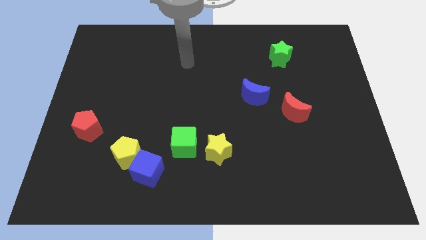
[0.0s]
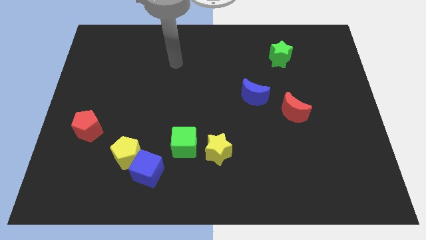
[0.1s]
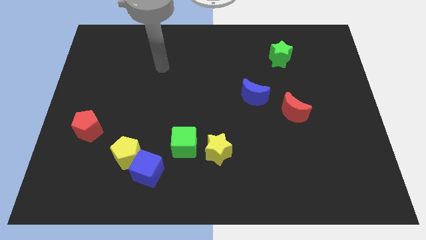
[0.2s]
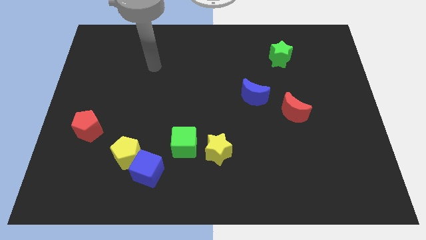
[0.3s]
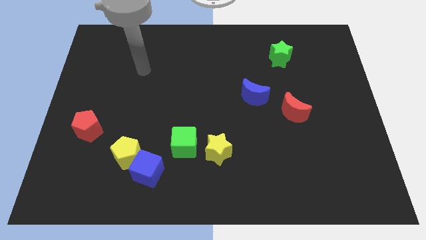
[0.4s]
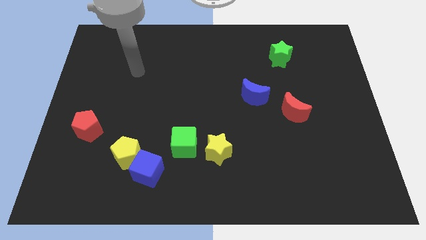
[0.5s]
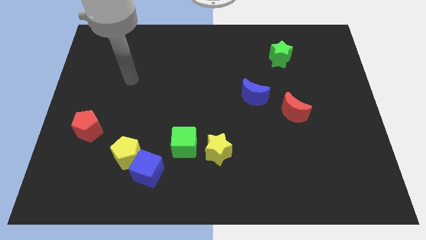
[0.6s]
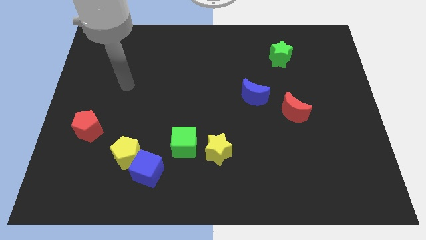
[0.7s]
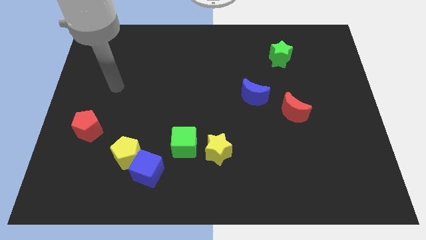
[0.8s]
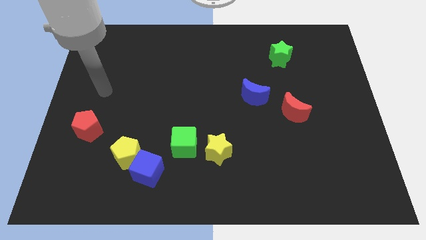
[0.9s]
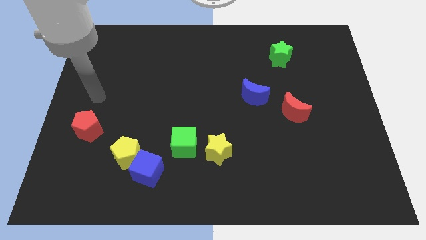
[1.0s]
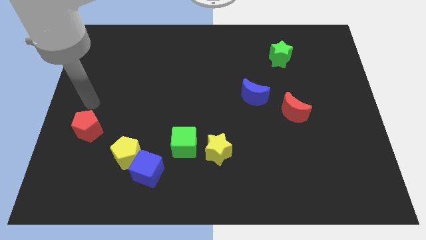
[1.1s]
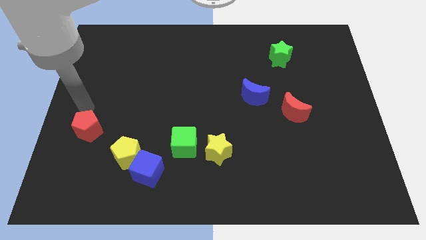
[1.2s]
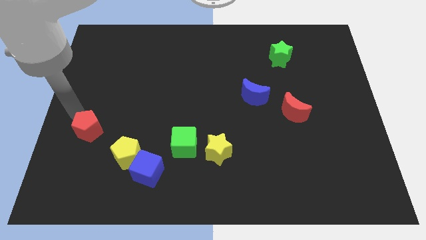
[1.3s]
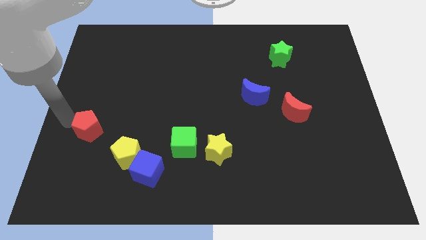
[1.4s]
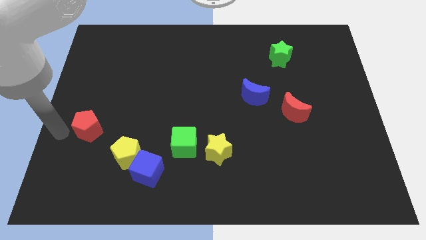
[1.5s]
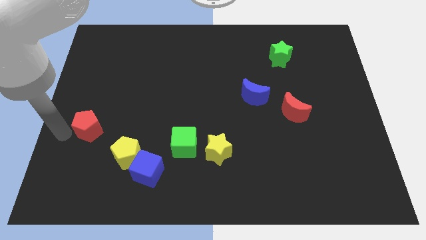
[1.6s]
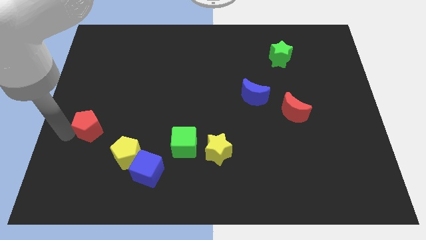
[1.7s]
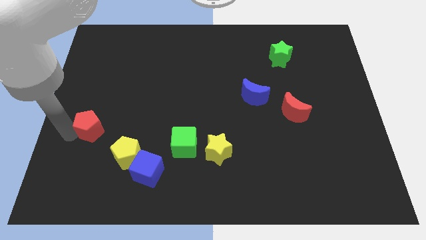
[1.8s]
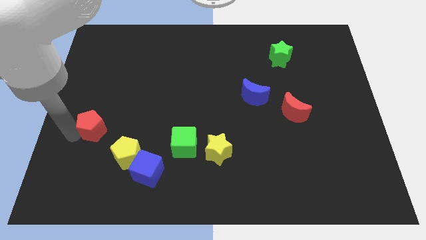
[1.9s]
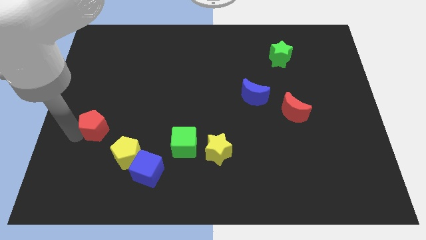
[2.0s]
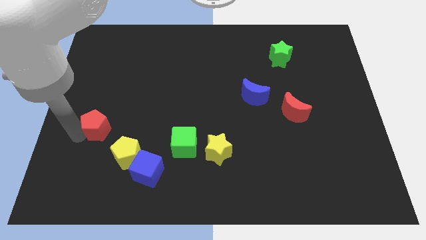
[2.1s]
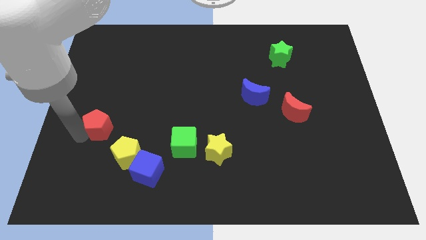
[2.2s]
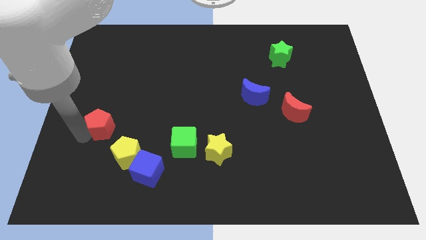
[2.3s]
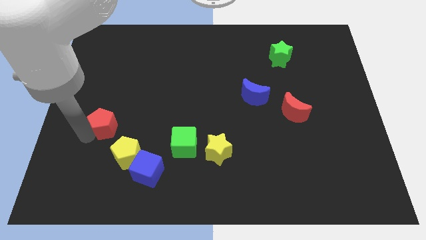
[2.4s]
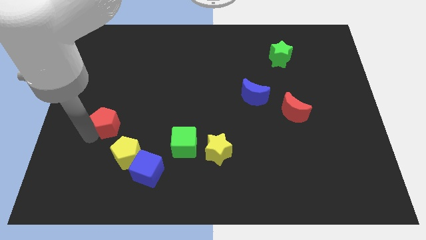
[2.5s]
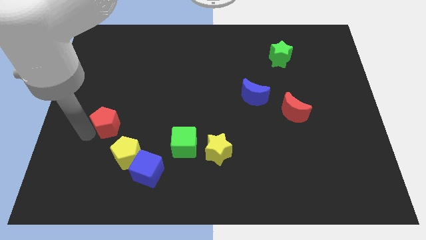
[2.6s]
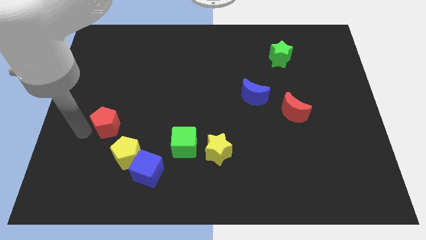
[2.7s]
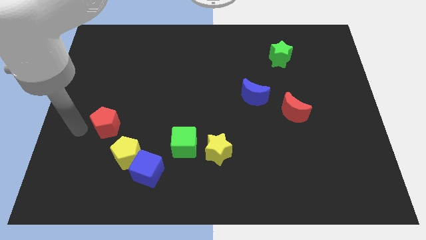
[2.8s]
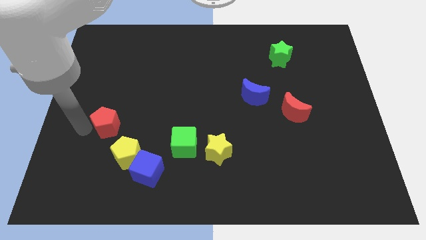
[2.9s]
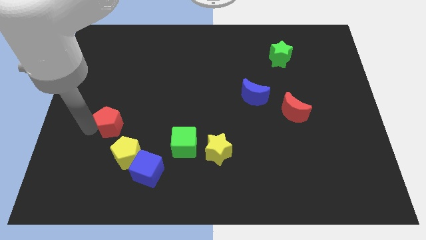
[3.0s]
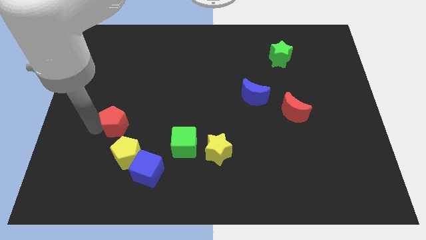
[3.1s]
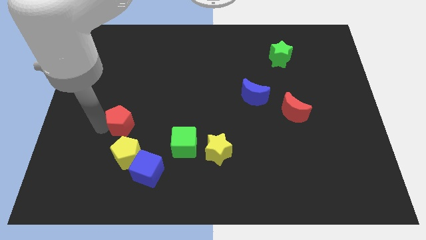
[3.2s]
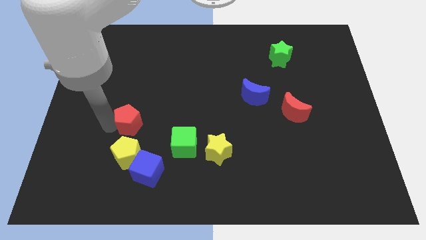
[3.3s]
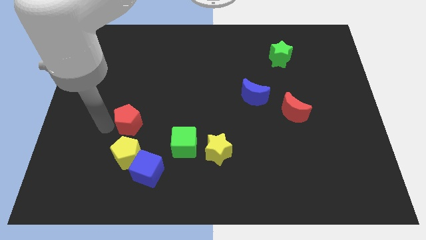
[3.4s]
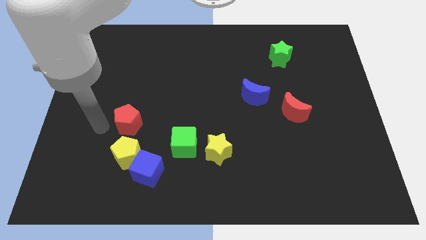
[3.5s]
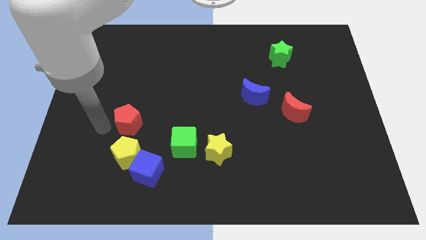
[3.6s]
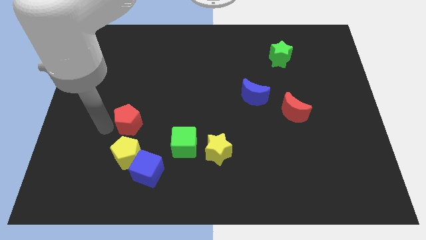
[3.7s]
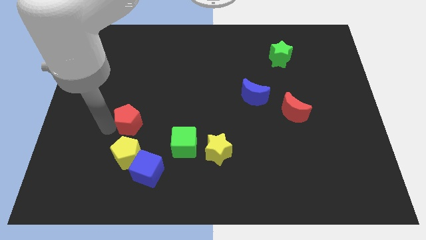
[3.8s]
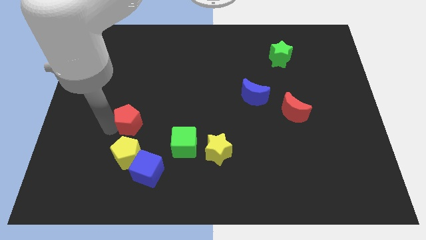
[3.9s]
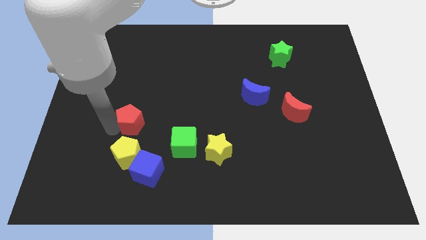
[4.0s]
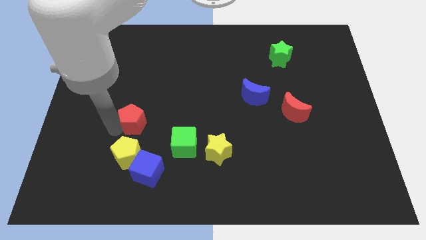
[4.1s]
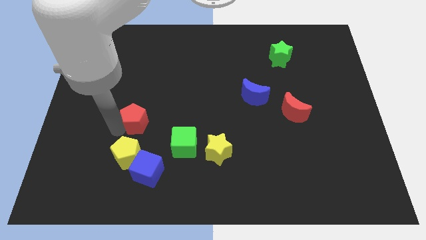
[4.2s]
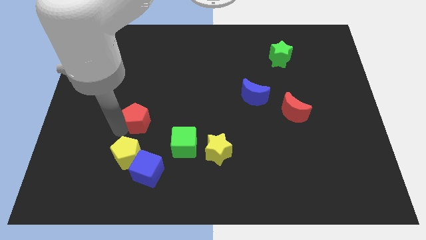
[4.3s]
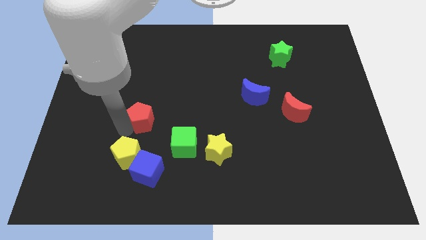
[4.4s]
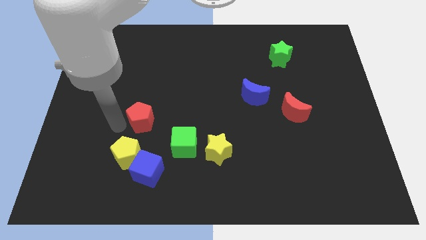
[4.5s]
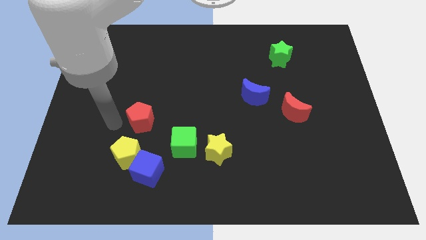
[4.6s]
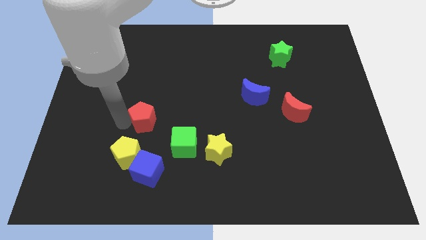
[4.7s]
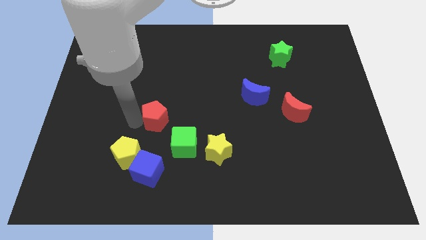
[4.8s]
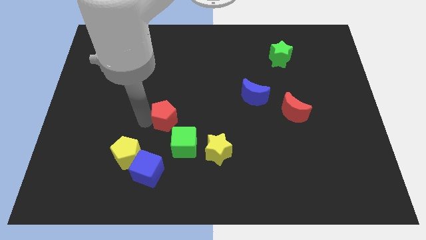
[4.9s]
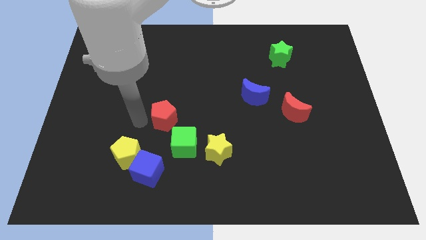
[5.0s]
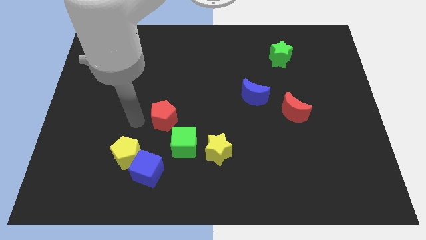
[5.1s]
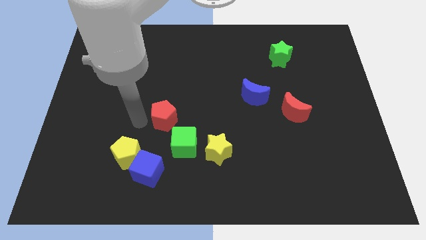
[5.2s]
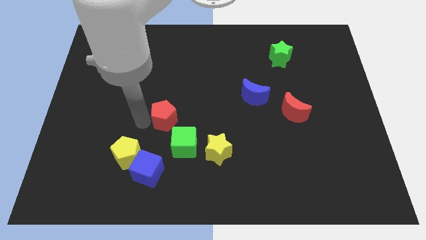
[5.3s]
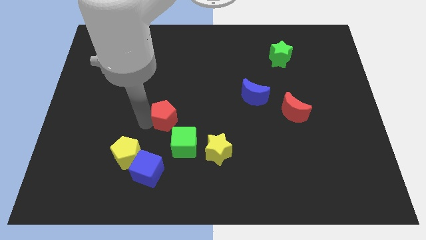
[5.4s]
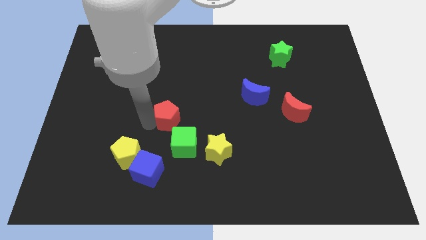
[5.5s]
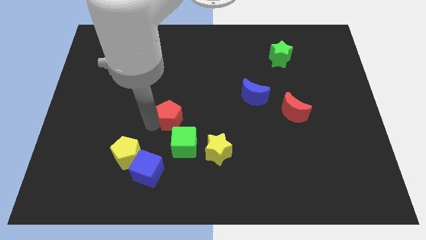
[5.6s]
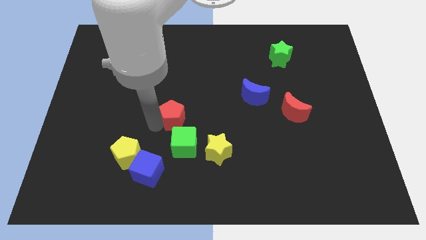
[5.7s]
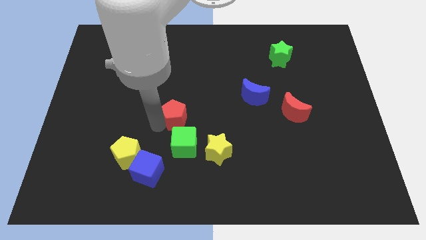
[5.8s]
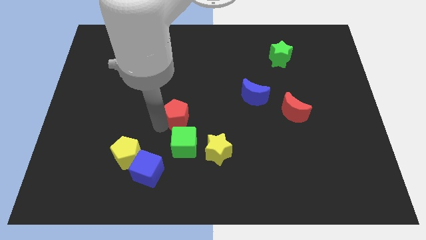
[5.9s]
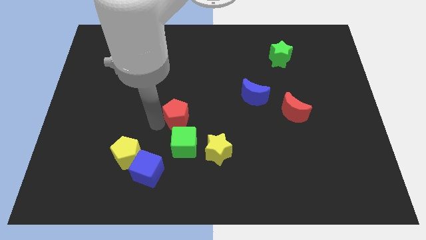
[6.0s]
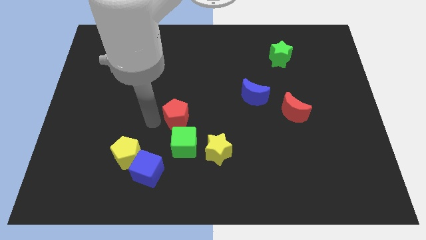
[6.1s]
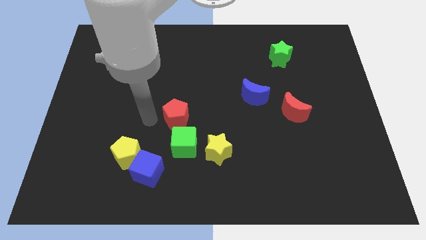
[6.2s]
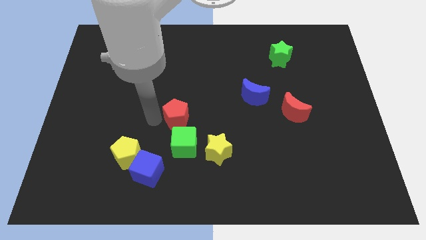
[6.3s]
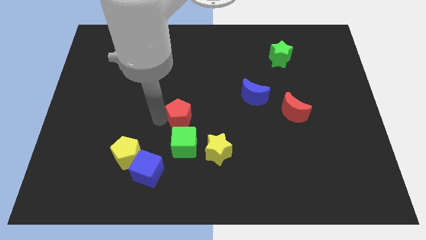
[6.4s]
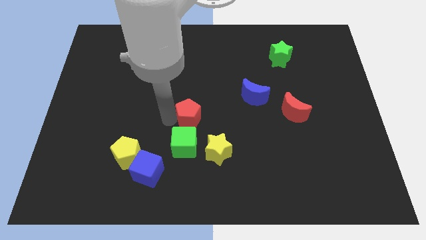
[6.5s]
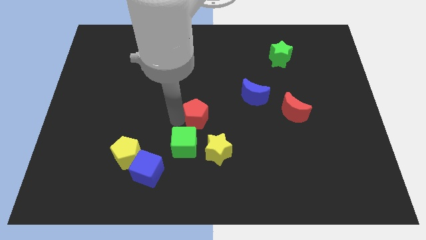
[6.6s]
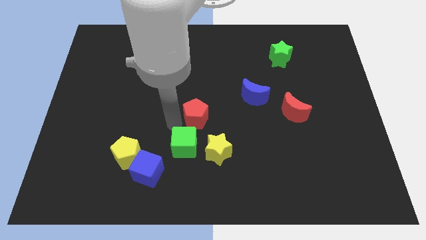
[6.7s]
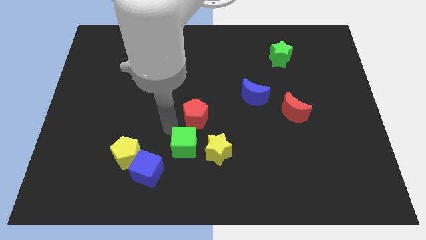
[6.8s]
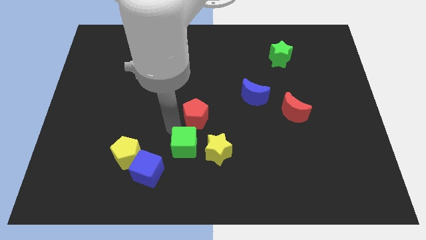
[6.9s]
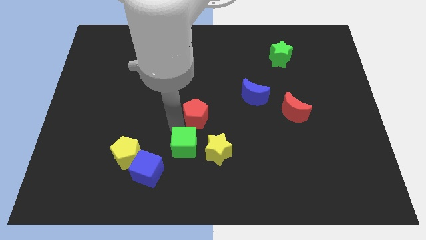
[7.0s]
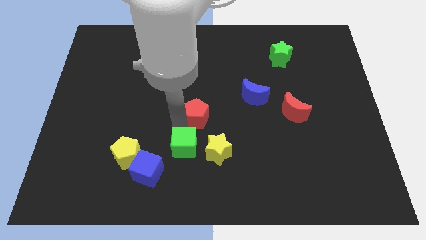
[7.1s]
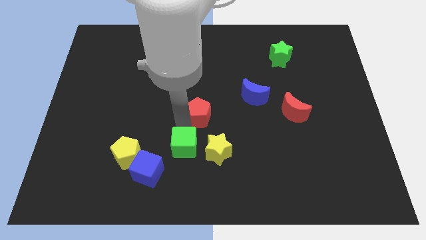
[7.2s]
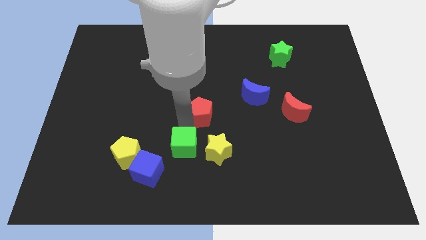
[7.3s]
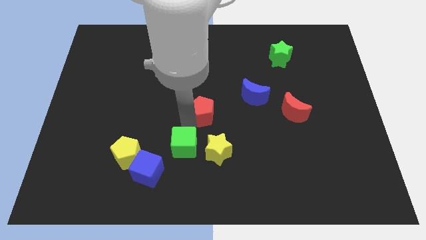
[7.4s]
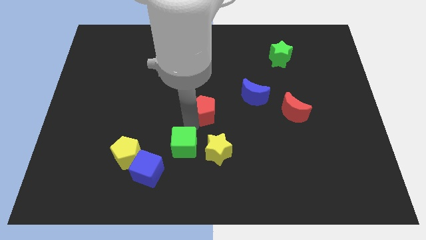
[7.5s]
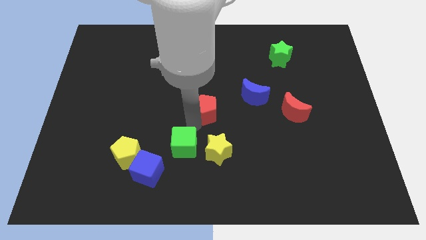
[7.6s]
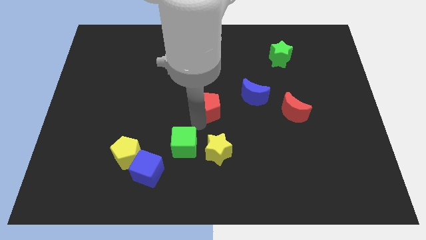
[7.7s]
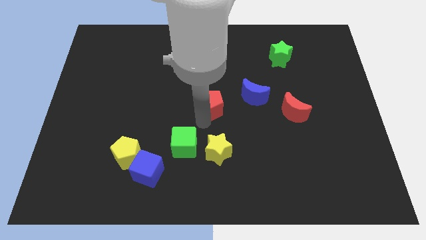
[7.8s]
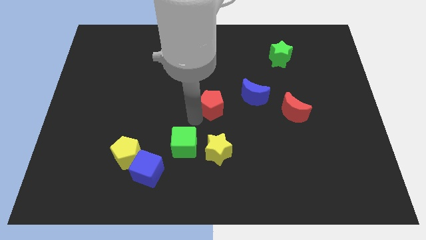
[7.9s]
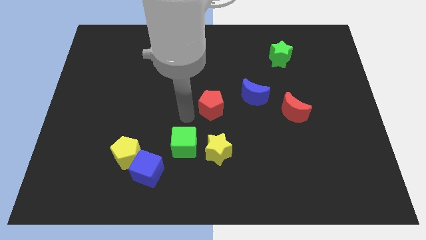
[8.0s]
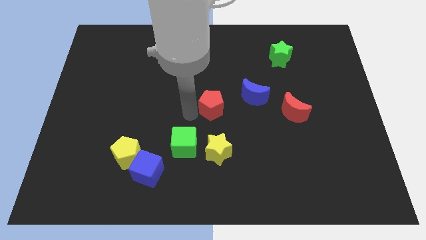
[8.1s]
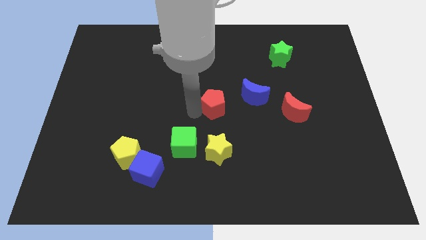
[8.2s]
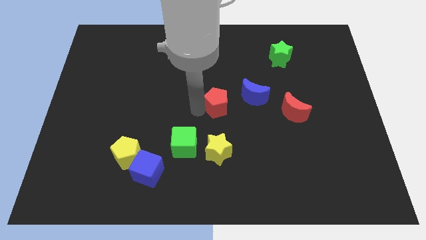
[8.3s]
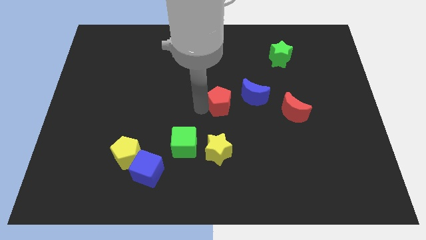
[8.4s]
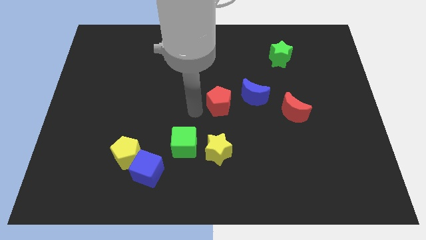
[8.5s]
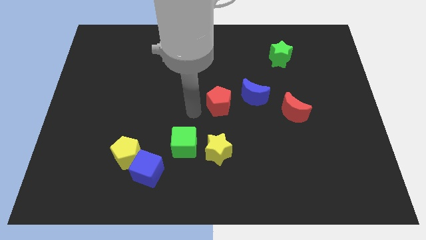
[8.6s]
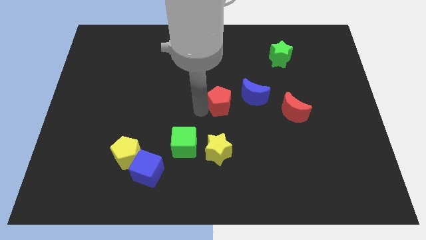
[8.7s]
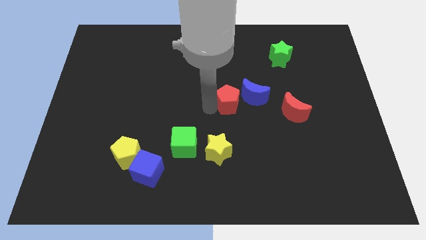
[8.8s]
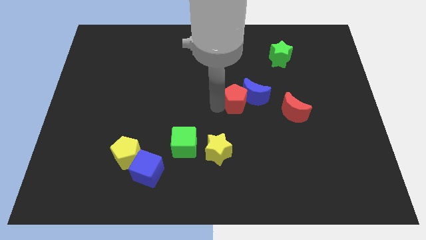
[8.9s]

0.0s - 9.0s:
move the red pentagon close to the blue moon
